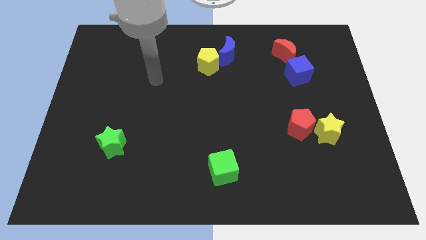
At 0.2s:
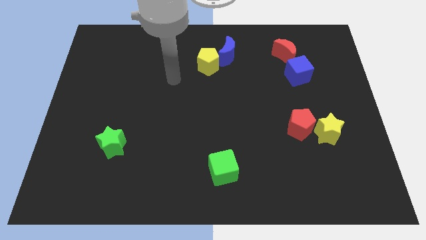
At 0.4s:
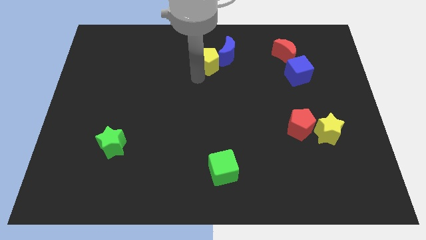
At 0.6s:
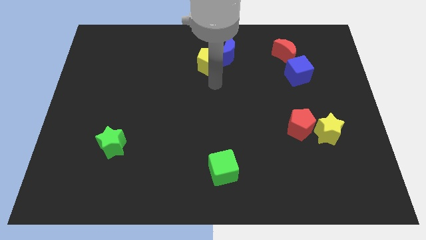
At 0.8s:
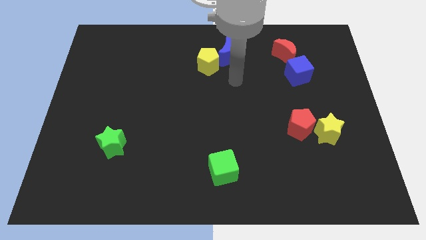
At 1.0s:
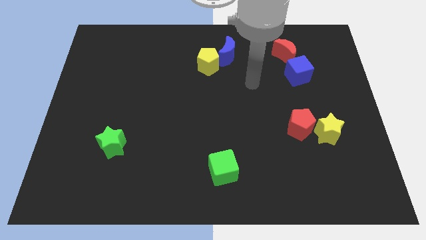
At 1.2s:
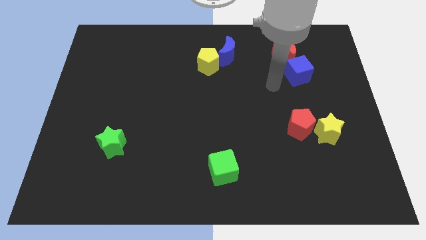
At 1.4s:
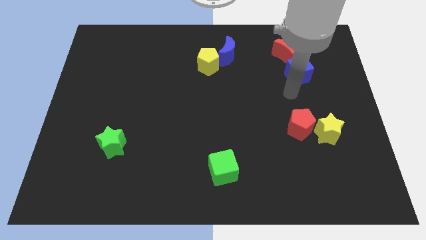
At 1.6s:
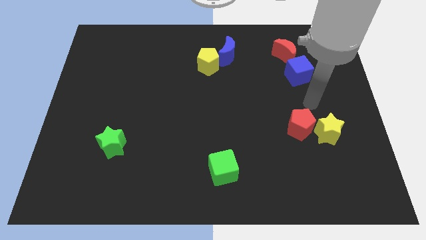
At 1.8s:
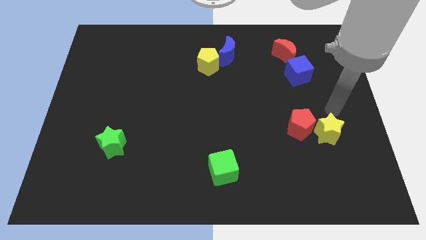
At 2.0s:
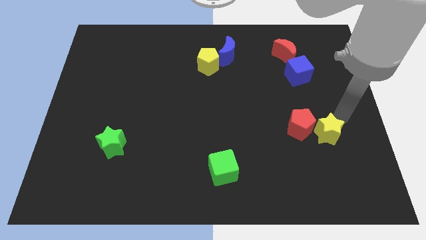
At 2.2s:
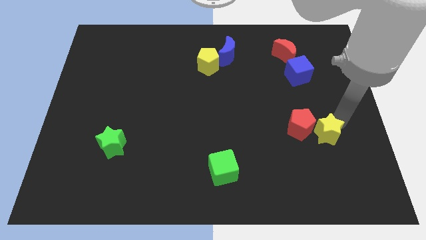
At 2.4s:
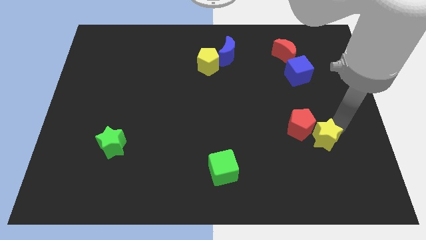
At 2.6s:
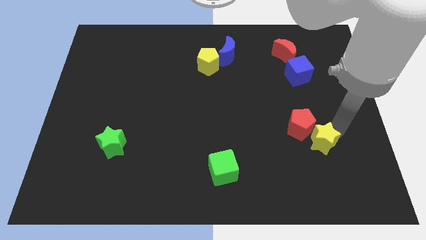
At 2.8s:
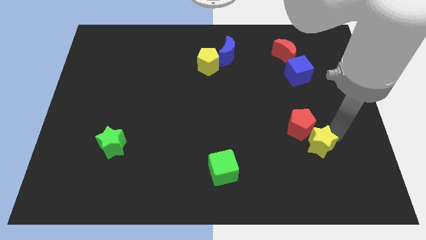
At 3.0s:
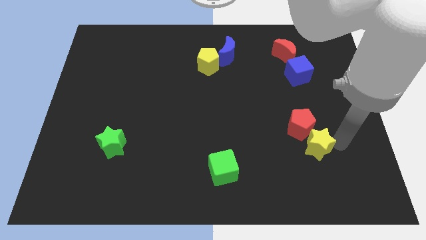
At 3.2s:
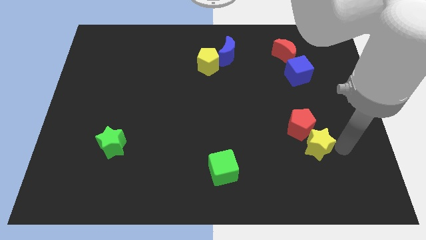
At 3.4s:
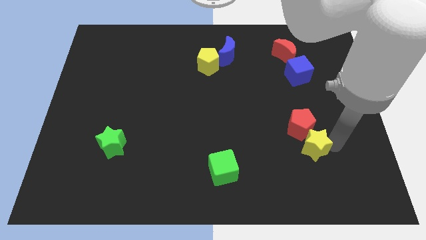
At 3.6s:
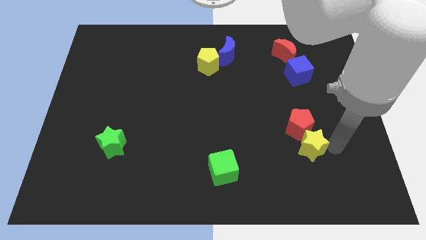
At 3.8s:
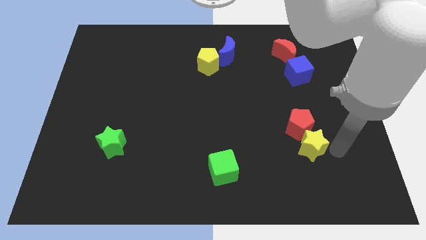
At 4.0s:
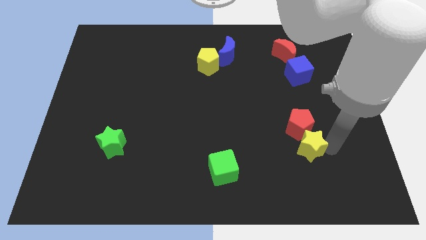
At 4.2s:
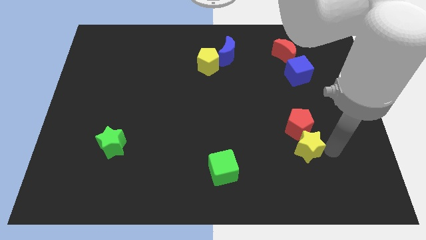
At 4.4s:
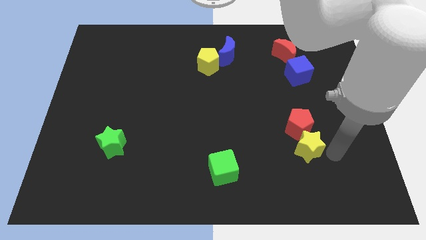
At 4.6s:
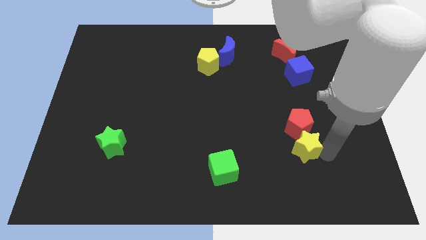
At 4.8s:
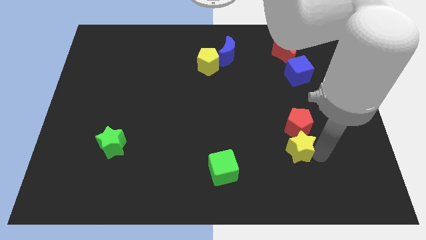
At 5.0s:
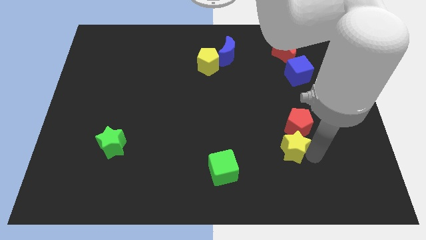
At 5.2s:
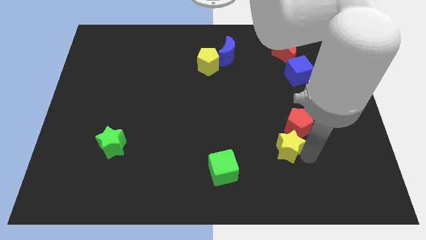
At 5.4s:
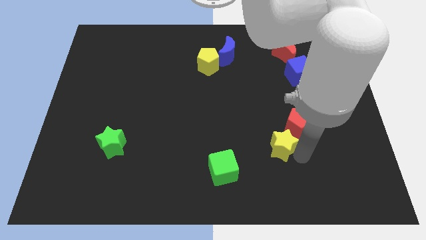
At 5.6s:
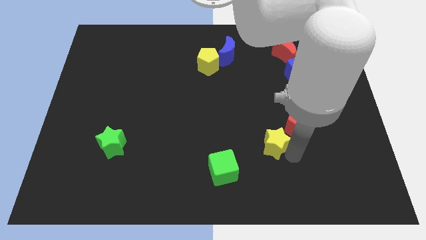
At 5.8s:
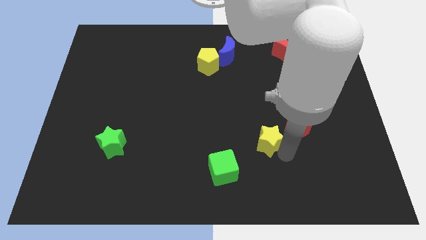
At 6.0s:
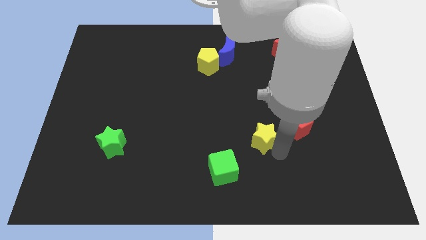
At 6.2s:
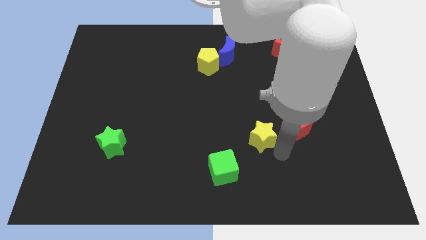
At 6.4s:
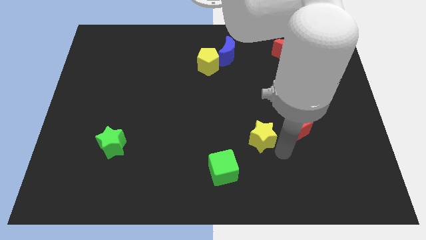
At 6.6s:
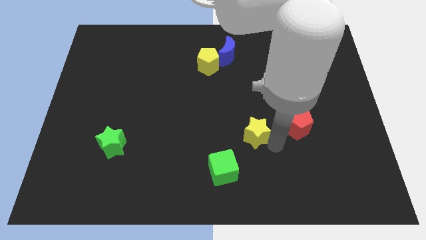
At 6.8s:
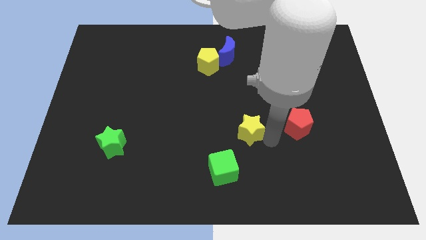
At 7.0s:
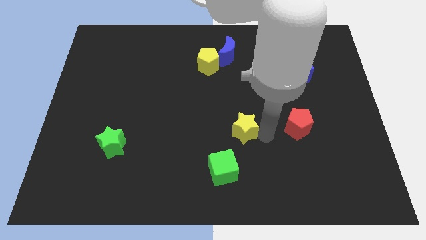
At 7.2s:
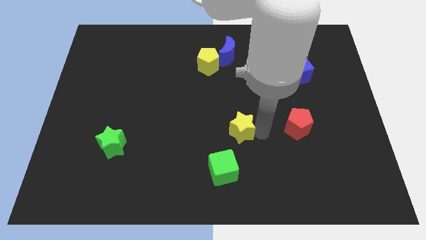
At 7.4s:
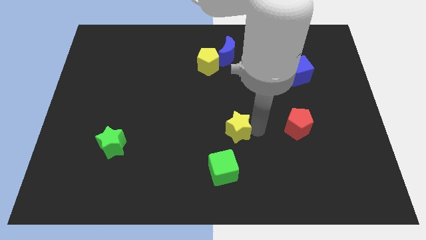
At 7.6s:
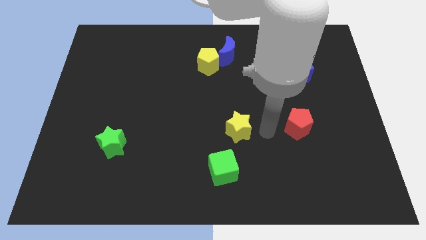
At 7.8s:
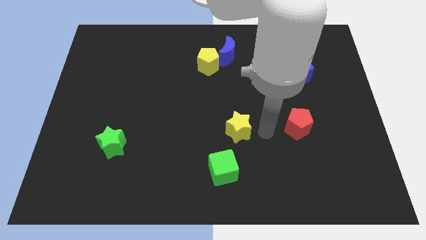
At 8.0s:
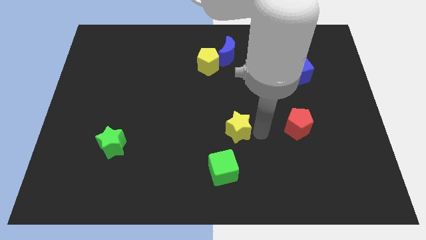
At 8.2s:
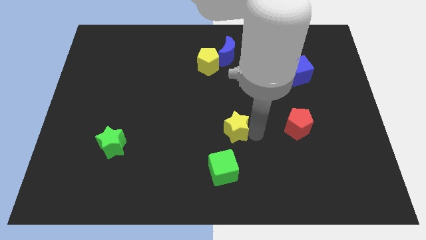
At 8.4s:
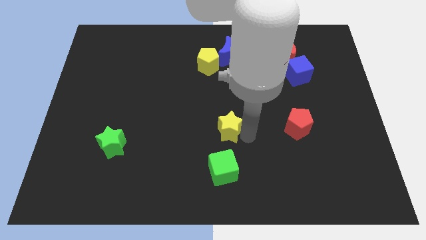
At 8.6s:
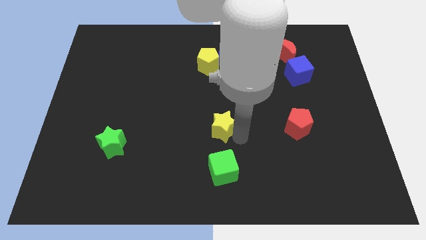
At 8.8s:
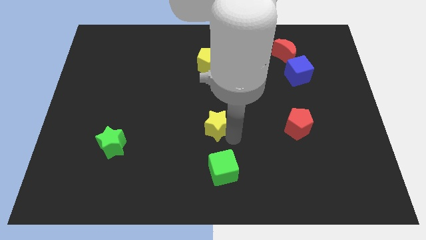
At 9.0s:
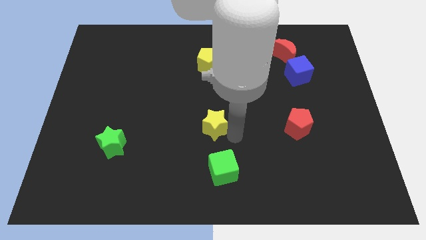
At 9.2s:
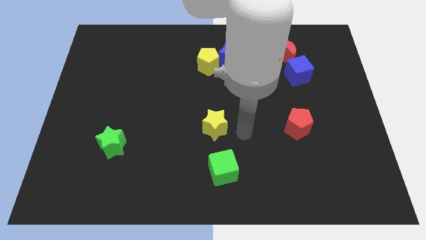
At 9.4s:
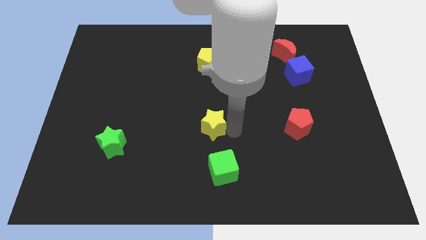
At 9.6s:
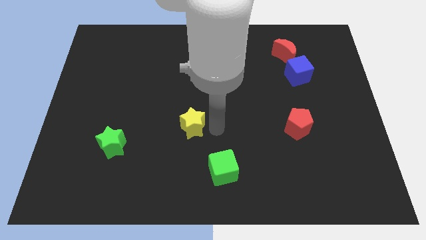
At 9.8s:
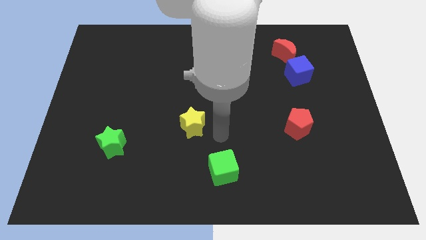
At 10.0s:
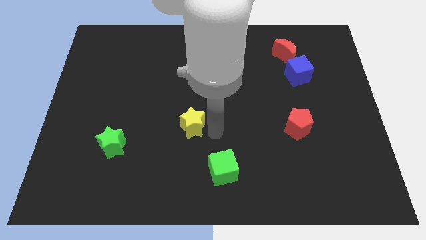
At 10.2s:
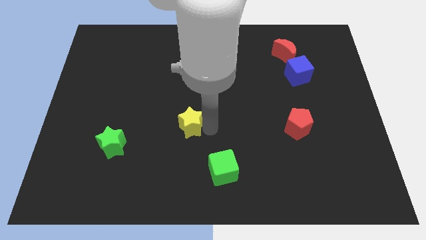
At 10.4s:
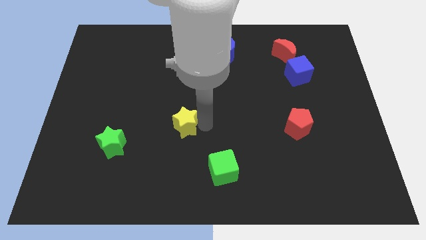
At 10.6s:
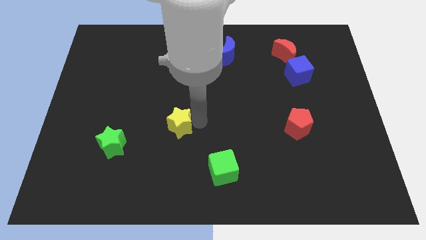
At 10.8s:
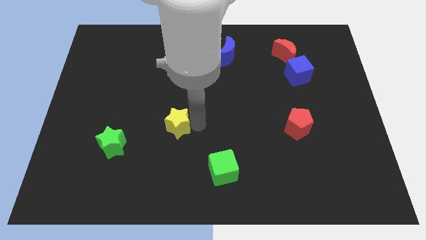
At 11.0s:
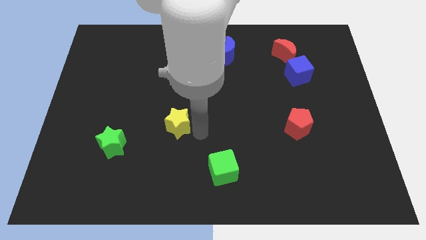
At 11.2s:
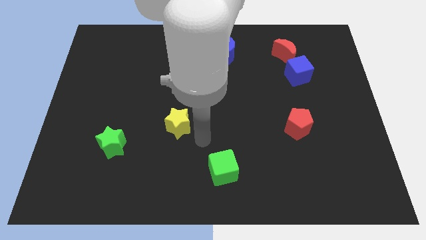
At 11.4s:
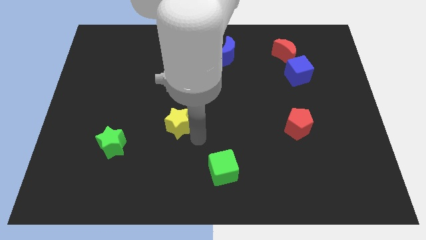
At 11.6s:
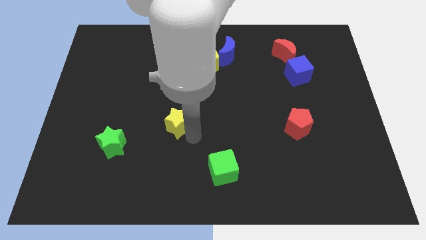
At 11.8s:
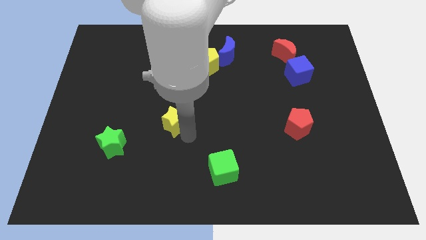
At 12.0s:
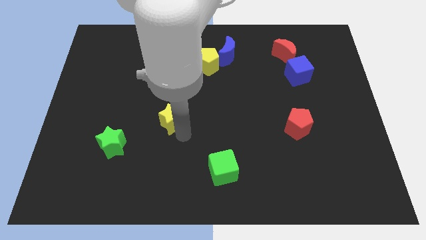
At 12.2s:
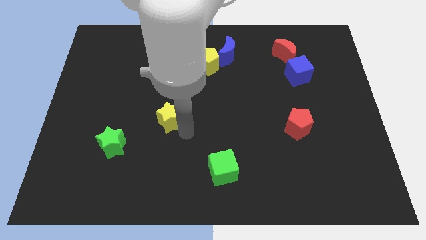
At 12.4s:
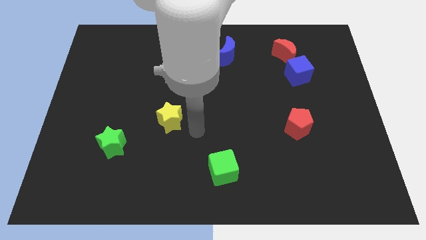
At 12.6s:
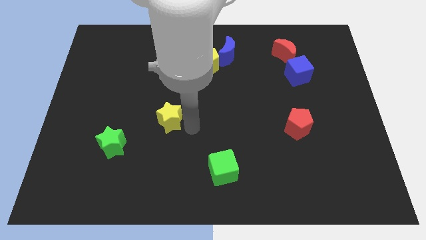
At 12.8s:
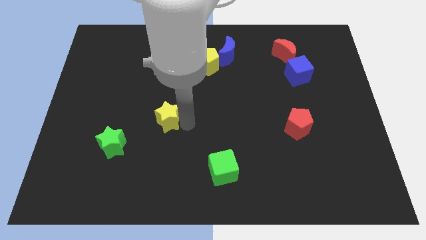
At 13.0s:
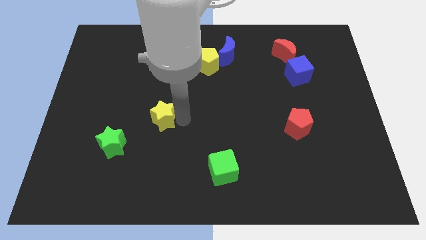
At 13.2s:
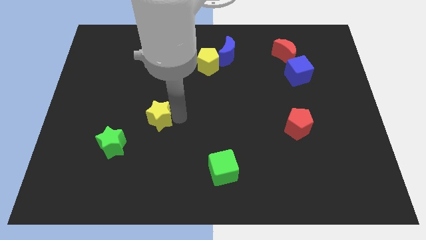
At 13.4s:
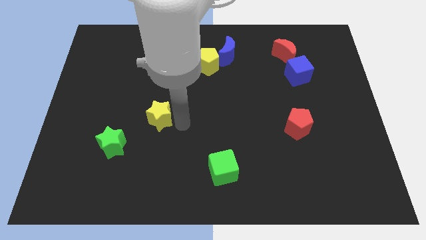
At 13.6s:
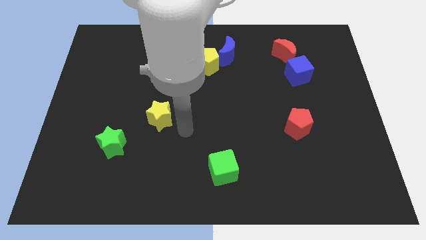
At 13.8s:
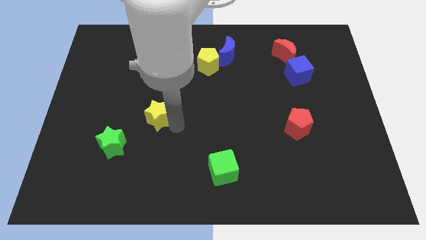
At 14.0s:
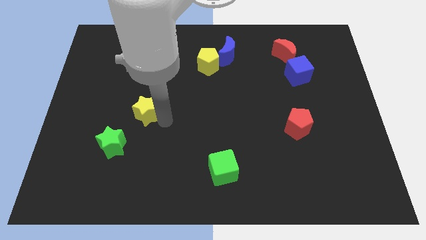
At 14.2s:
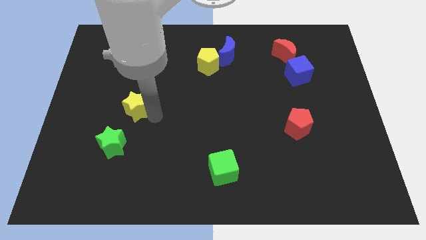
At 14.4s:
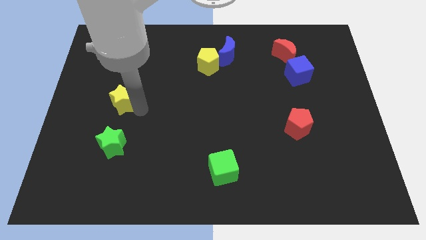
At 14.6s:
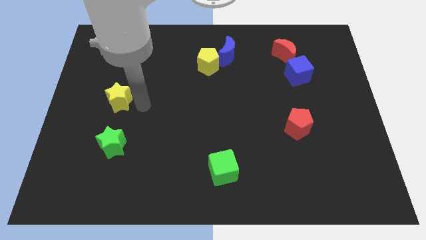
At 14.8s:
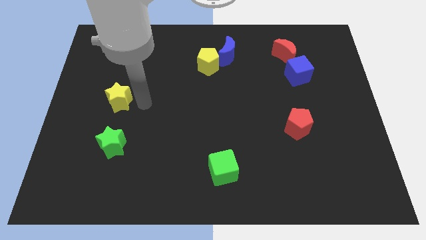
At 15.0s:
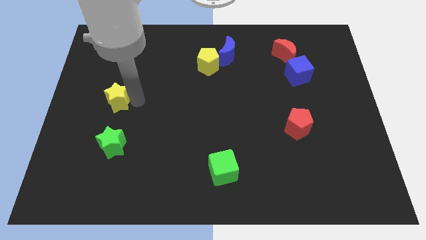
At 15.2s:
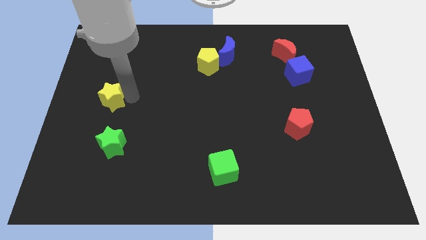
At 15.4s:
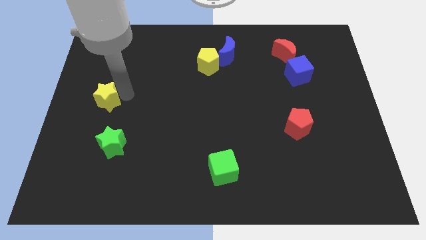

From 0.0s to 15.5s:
push the yellow star to the left side of the board
